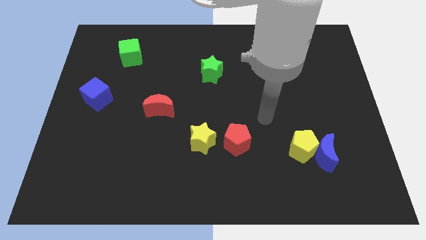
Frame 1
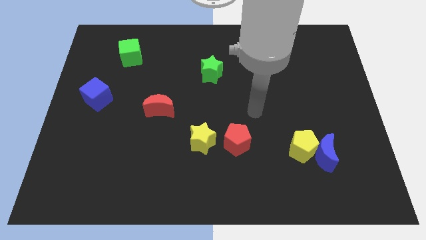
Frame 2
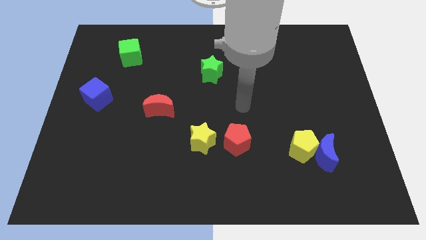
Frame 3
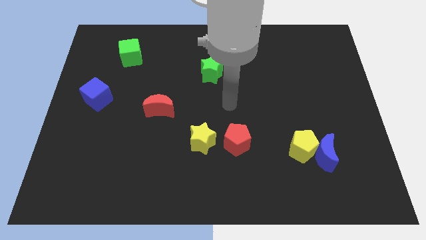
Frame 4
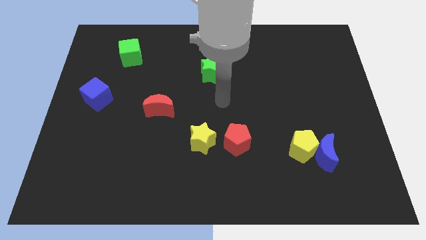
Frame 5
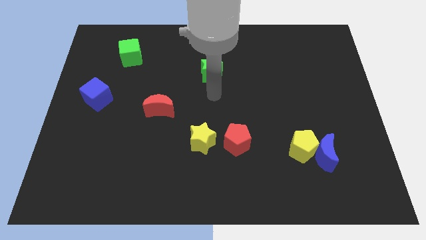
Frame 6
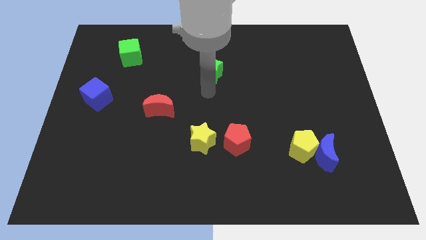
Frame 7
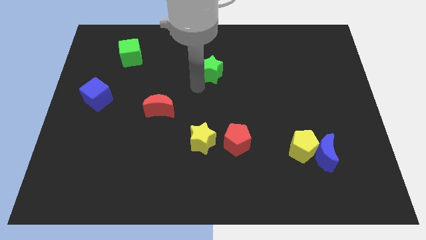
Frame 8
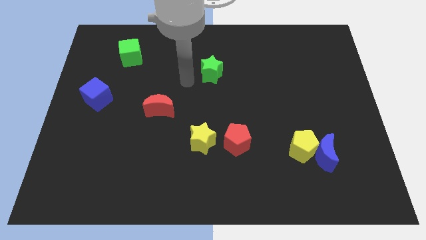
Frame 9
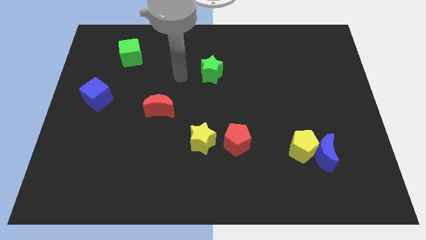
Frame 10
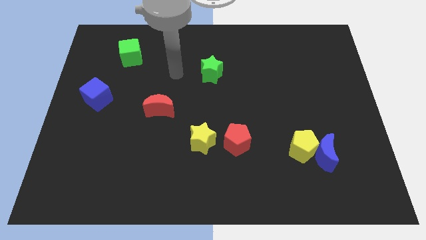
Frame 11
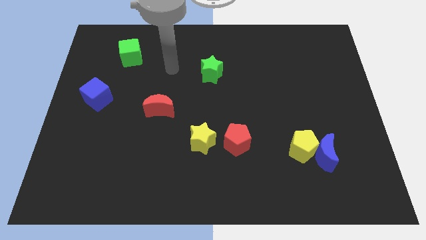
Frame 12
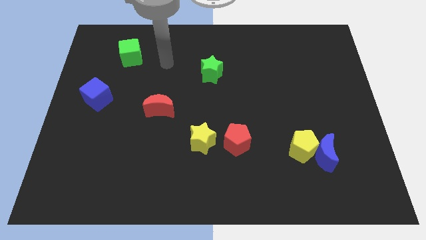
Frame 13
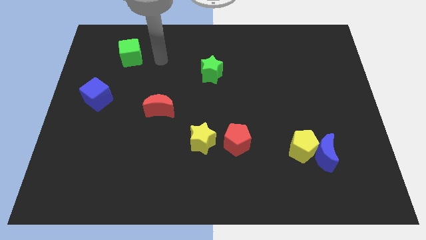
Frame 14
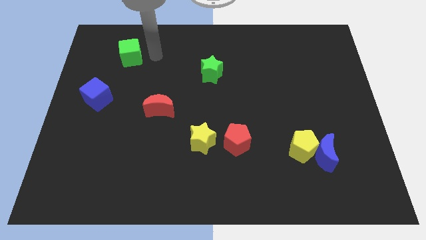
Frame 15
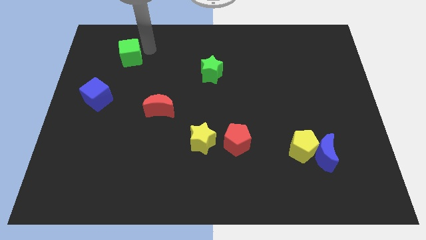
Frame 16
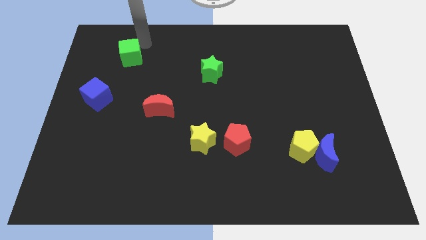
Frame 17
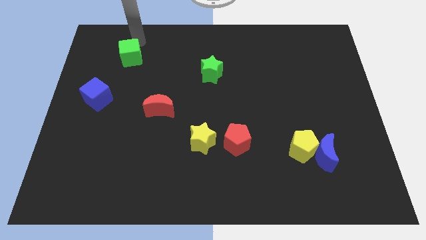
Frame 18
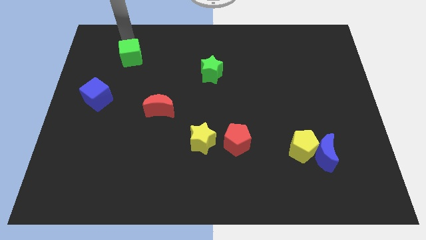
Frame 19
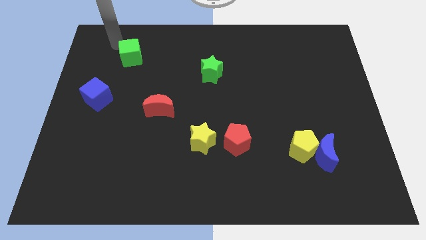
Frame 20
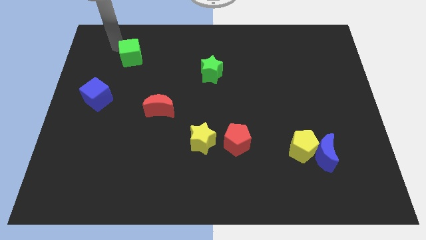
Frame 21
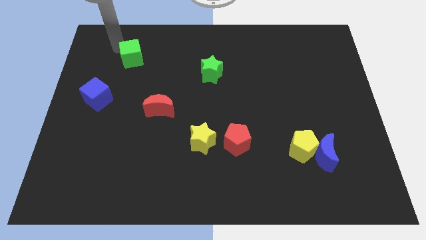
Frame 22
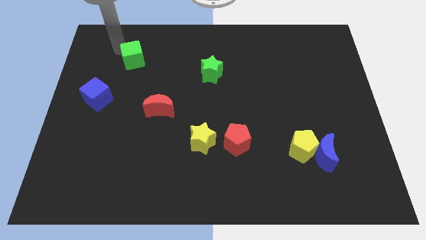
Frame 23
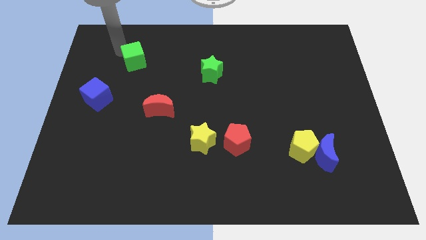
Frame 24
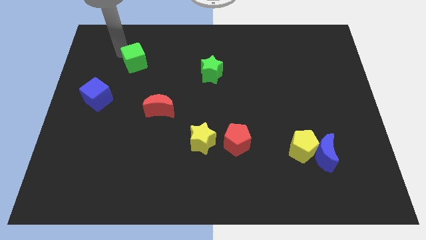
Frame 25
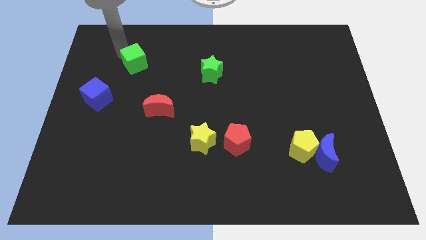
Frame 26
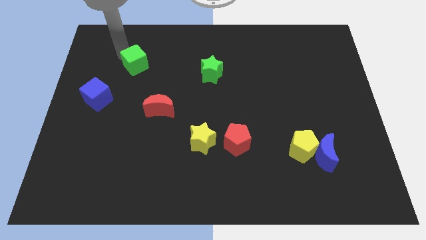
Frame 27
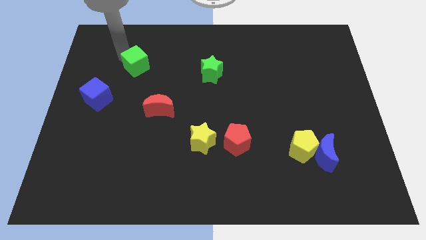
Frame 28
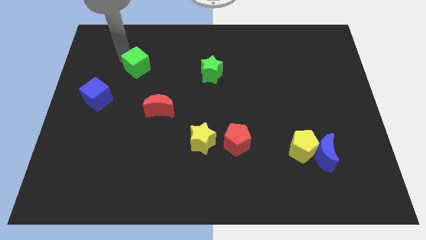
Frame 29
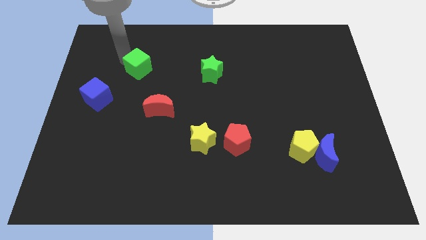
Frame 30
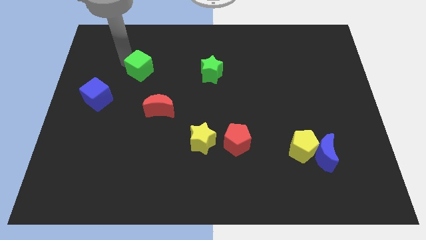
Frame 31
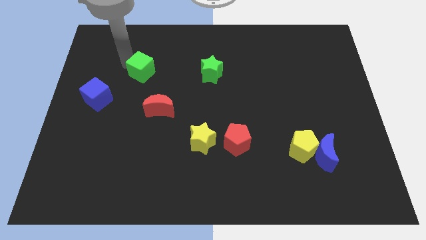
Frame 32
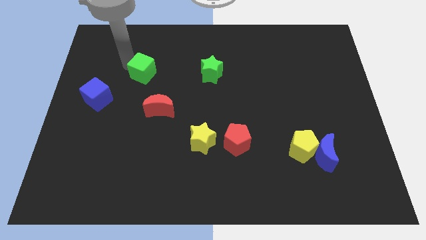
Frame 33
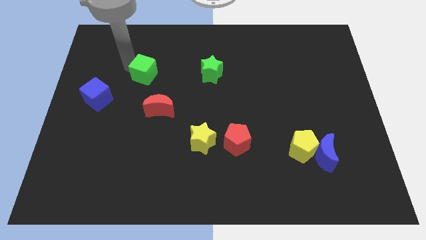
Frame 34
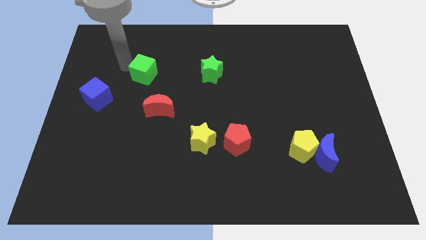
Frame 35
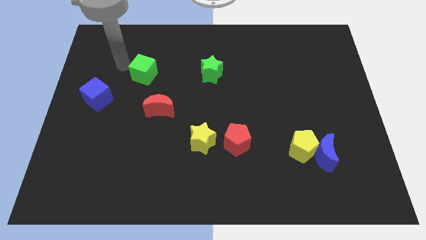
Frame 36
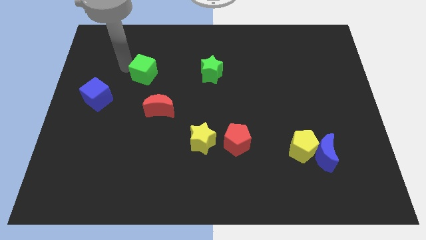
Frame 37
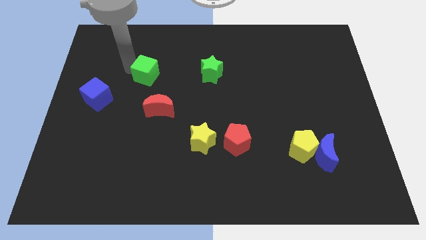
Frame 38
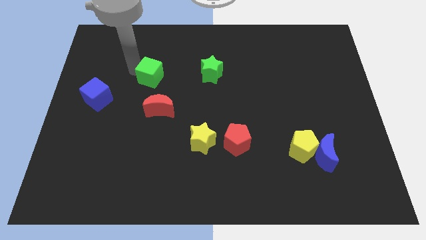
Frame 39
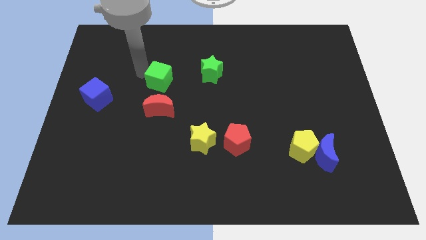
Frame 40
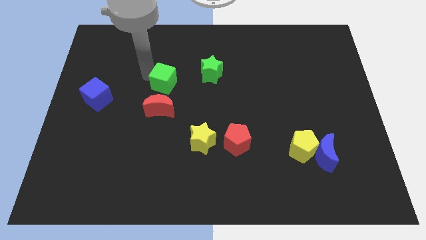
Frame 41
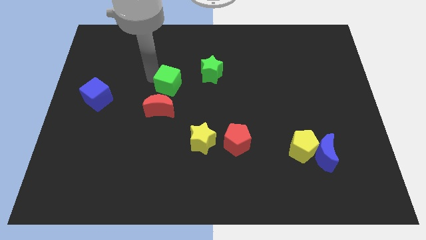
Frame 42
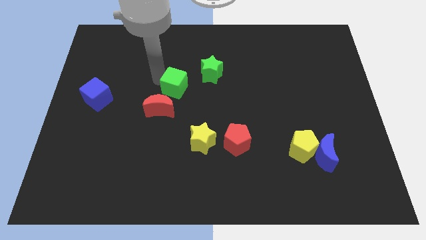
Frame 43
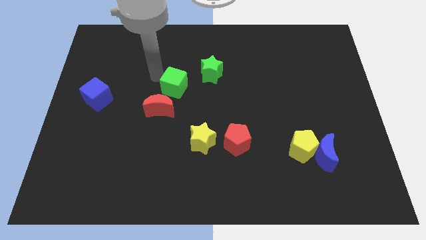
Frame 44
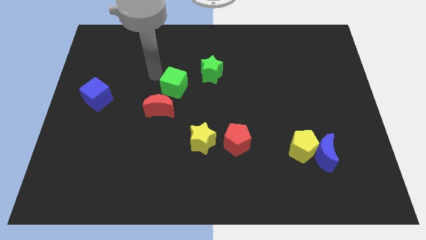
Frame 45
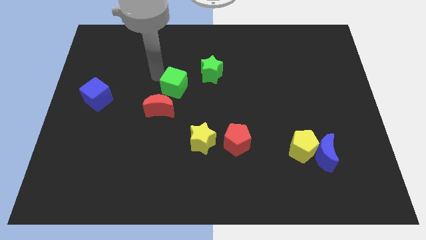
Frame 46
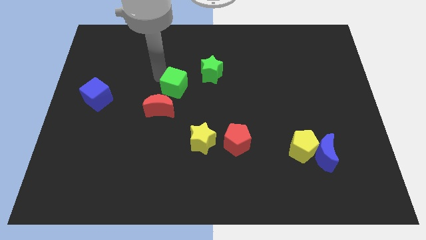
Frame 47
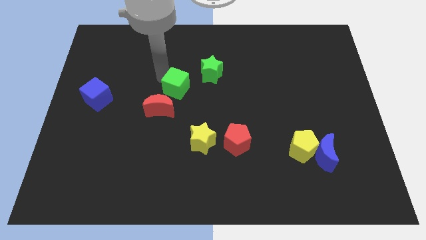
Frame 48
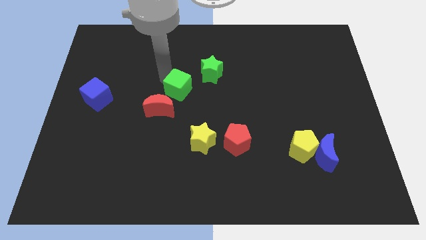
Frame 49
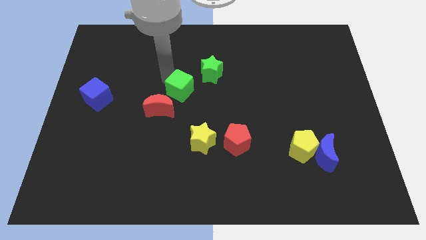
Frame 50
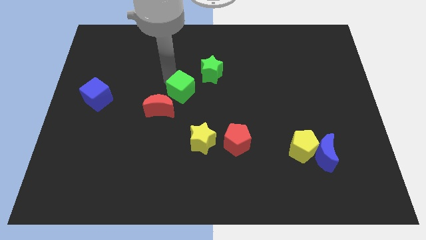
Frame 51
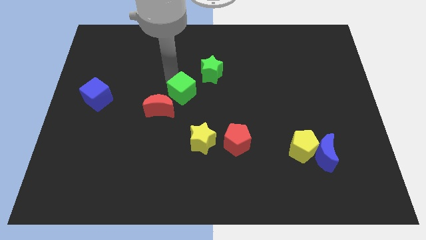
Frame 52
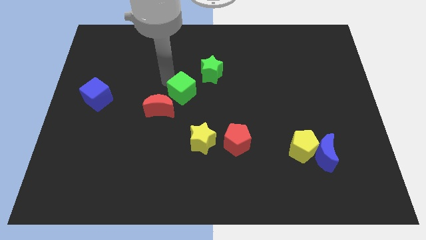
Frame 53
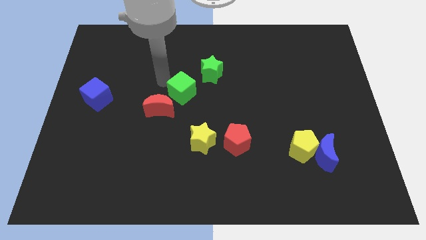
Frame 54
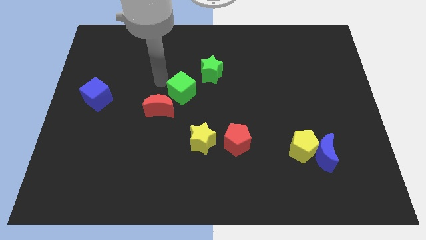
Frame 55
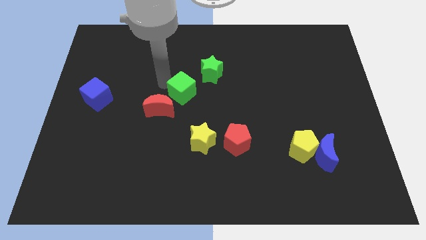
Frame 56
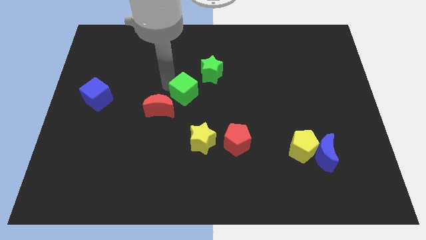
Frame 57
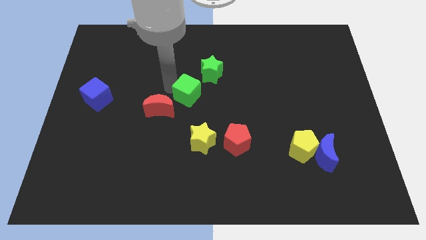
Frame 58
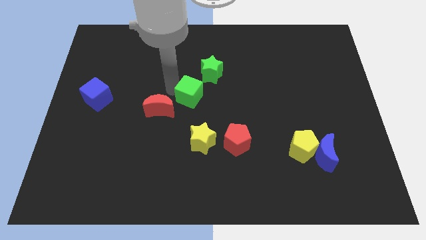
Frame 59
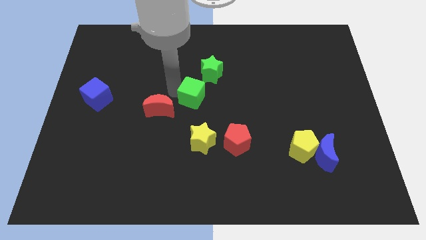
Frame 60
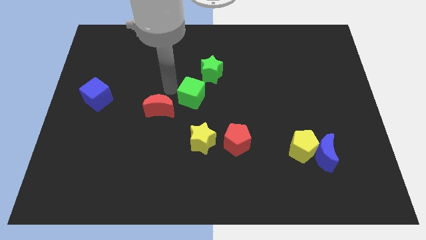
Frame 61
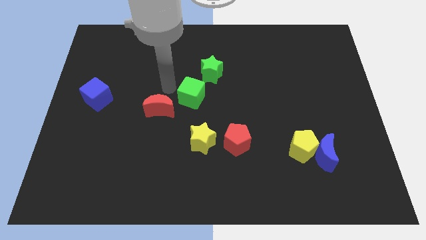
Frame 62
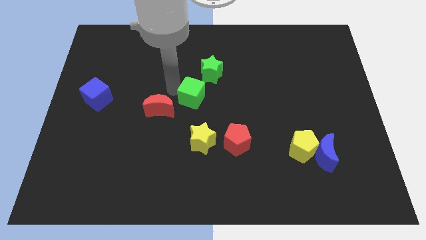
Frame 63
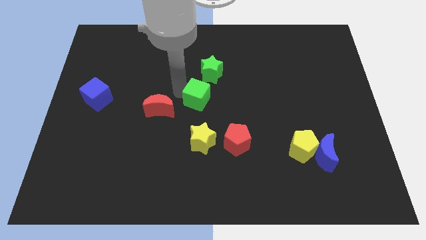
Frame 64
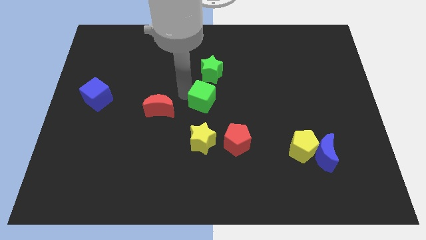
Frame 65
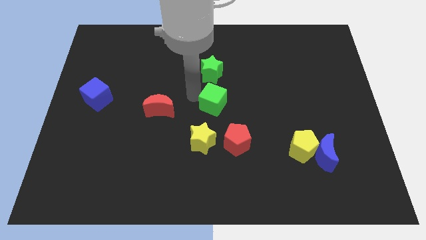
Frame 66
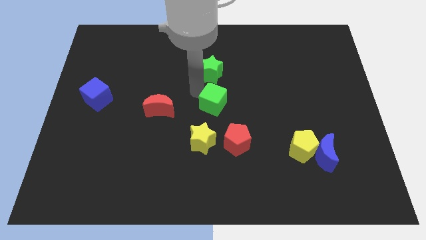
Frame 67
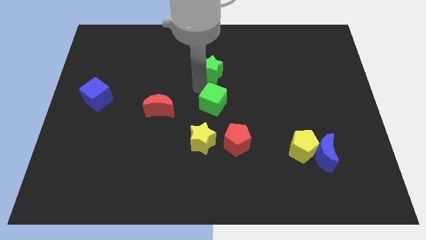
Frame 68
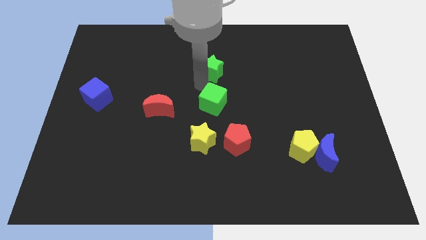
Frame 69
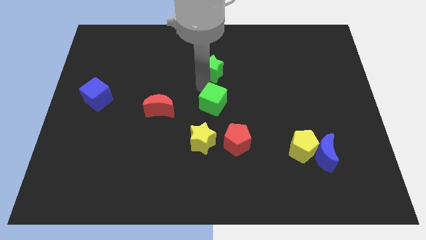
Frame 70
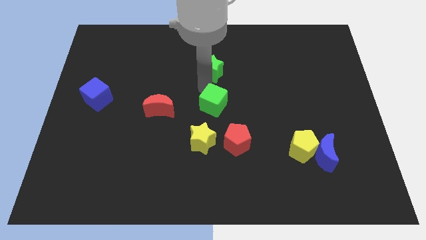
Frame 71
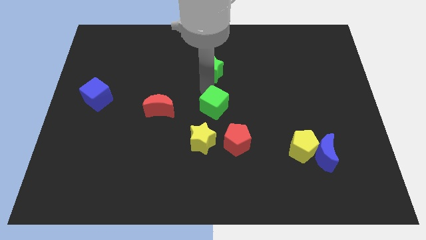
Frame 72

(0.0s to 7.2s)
put the green cube to the top right side of the yellow star
